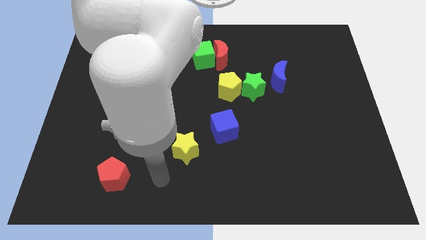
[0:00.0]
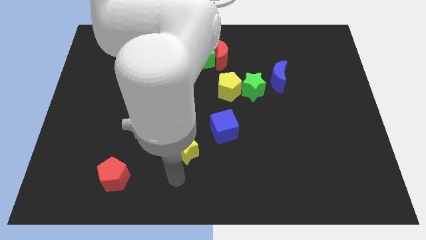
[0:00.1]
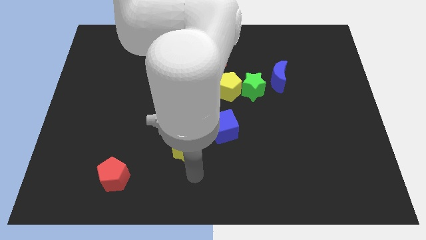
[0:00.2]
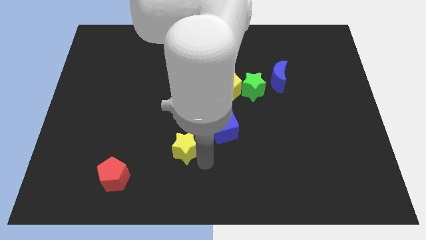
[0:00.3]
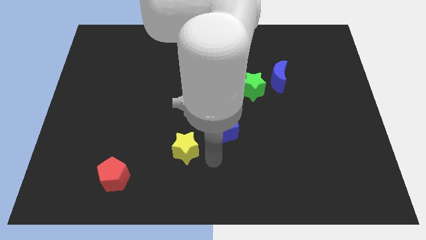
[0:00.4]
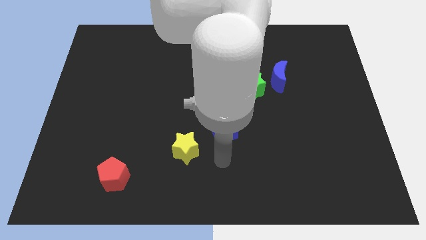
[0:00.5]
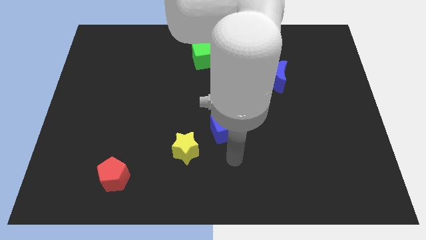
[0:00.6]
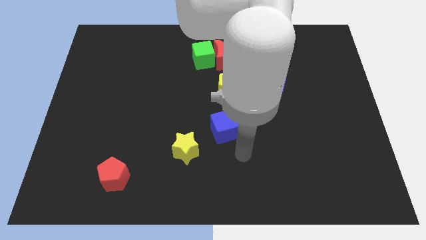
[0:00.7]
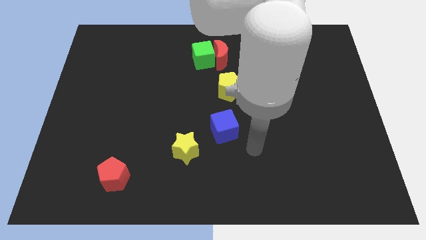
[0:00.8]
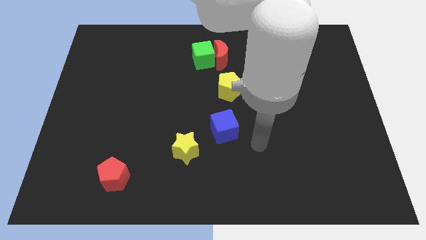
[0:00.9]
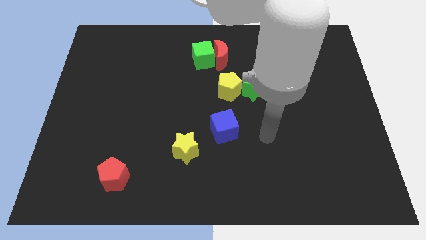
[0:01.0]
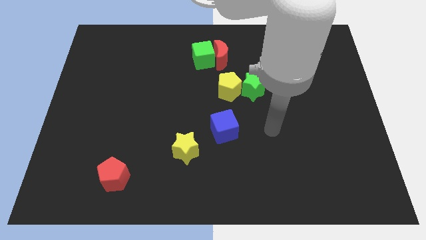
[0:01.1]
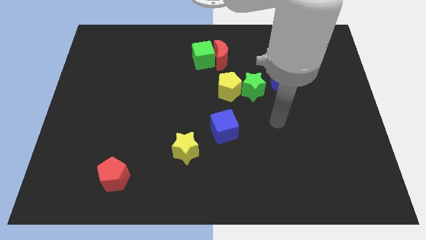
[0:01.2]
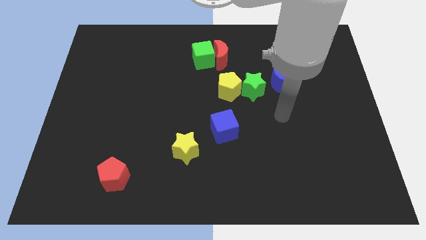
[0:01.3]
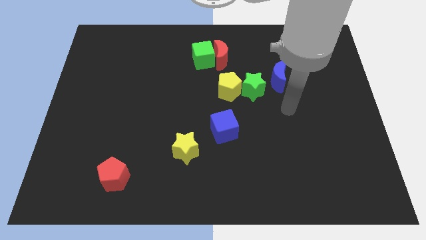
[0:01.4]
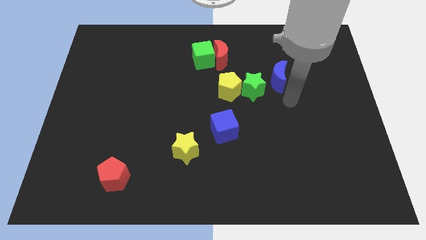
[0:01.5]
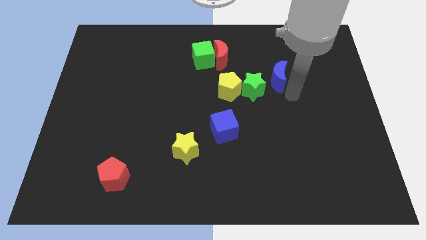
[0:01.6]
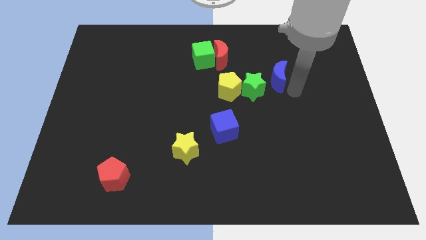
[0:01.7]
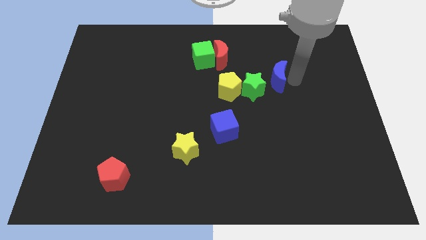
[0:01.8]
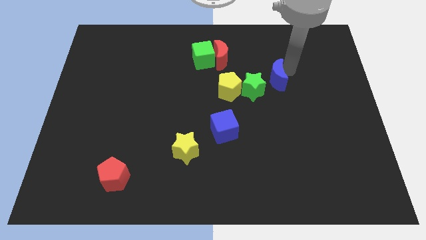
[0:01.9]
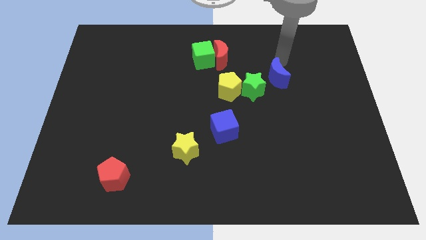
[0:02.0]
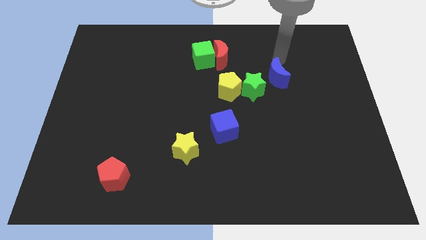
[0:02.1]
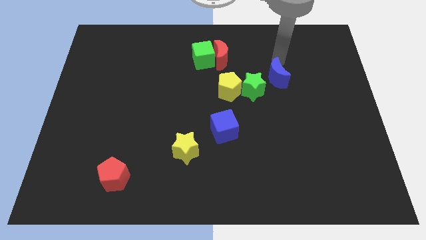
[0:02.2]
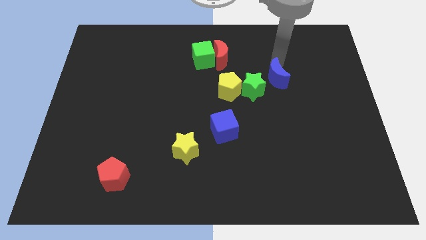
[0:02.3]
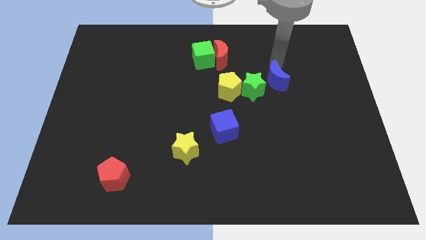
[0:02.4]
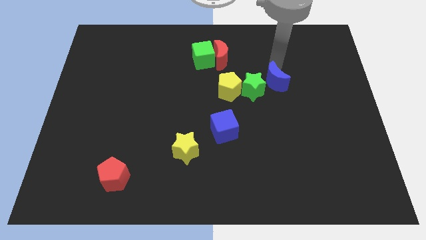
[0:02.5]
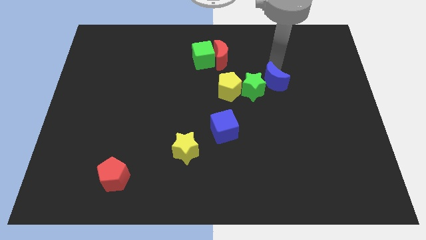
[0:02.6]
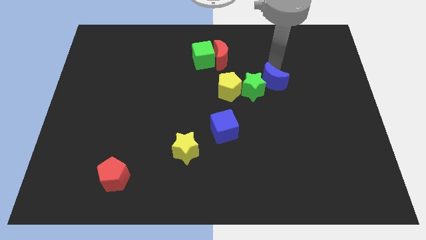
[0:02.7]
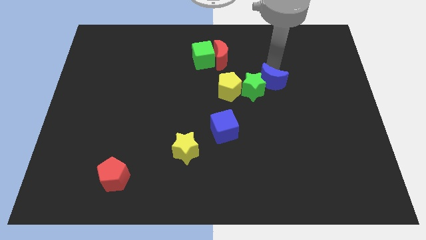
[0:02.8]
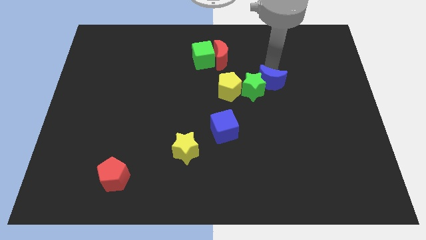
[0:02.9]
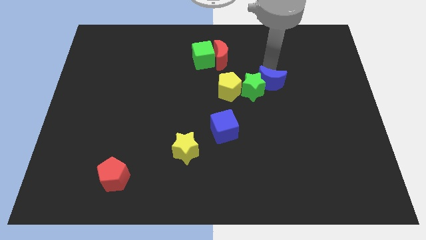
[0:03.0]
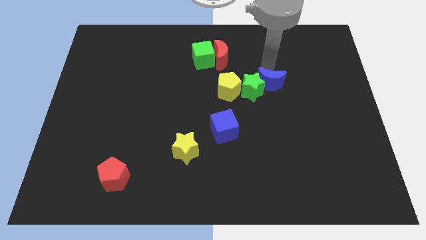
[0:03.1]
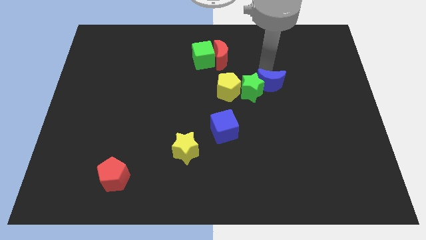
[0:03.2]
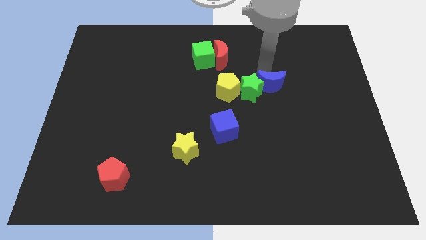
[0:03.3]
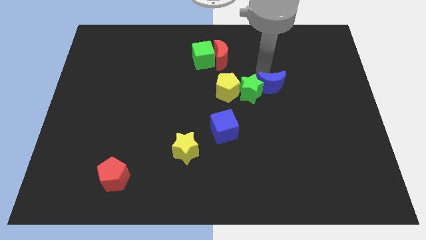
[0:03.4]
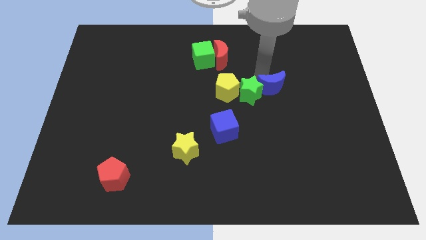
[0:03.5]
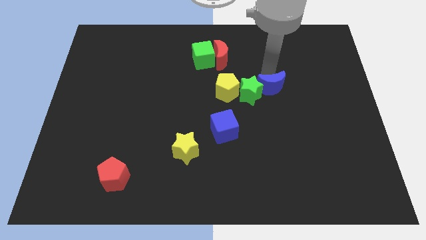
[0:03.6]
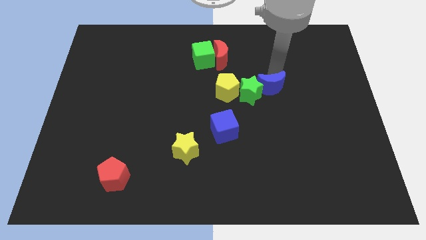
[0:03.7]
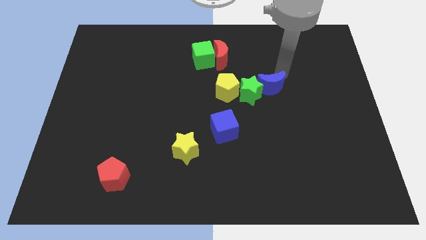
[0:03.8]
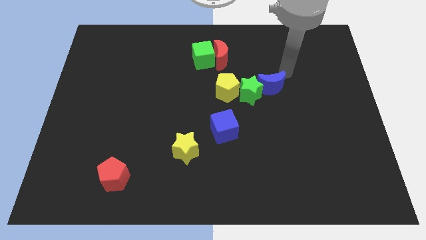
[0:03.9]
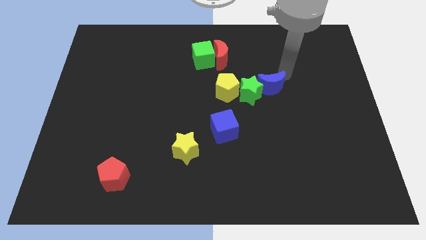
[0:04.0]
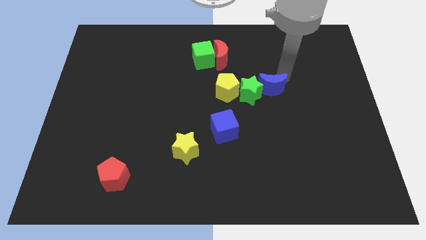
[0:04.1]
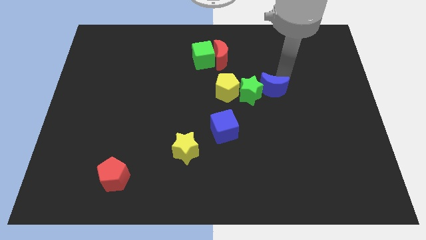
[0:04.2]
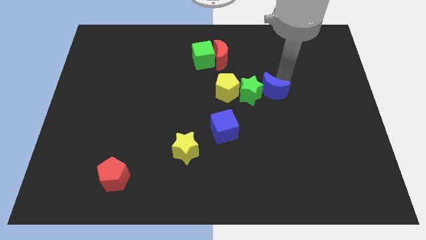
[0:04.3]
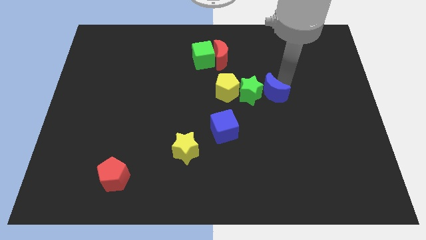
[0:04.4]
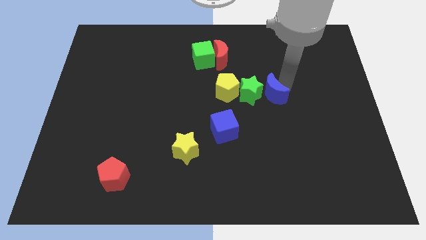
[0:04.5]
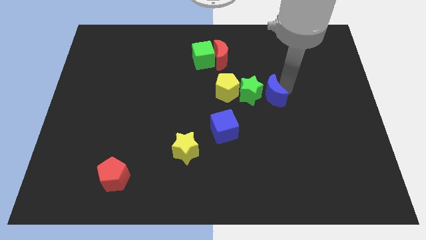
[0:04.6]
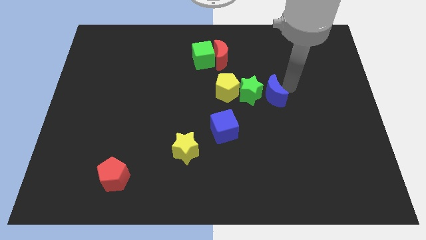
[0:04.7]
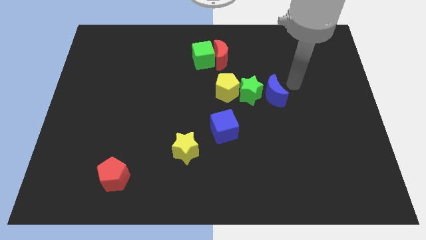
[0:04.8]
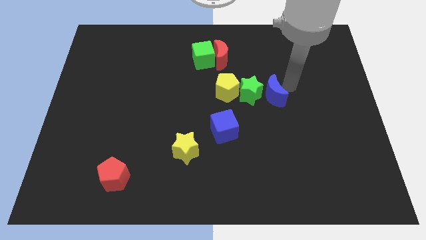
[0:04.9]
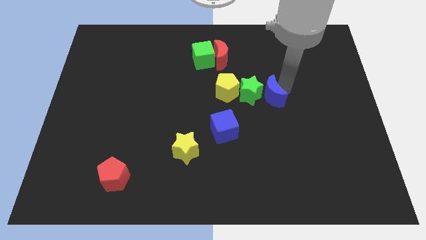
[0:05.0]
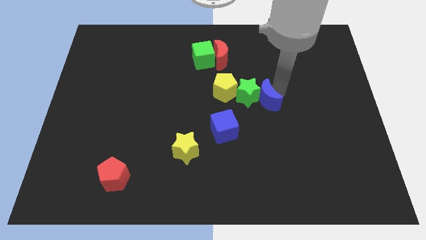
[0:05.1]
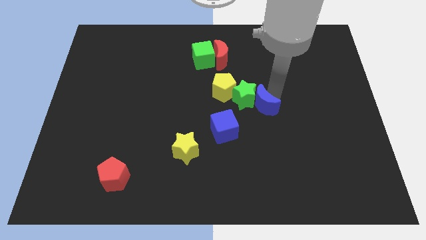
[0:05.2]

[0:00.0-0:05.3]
slide the blue moon diagonally down and to the right of the yellow pentagon

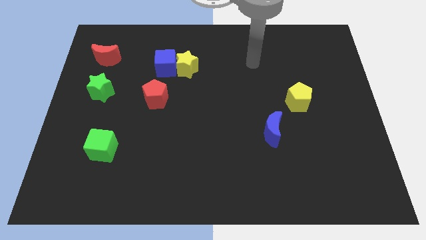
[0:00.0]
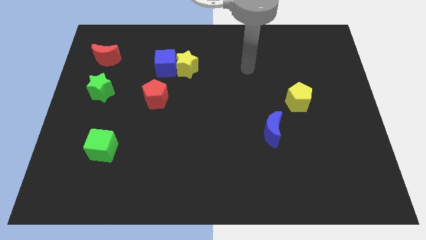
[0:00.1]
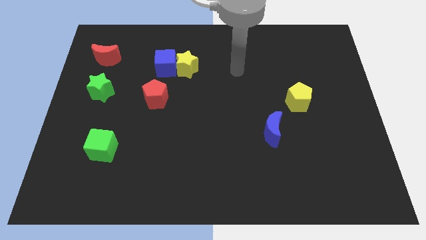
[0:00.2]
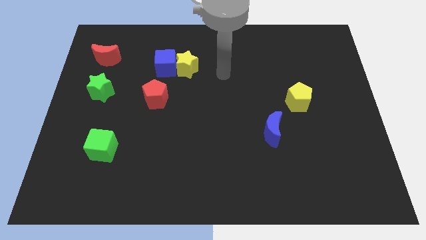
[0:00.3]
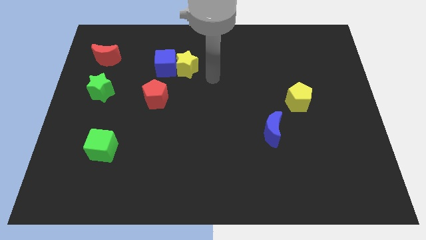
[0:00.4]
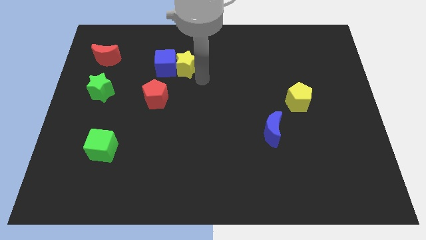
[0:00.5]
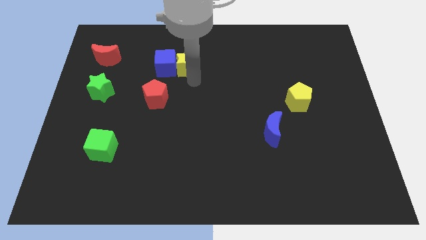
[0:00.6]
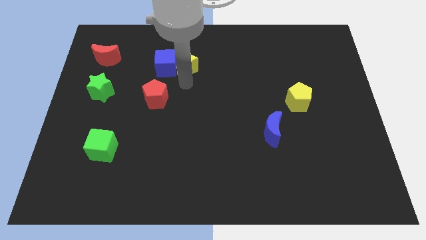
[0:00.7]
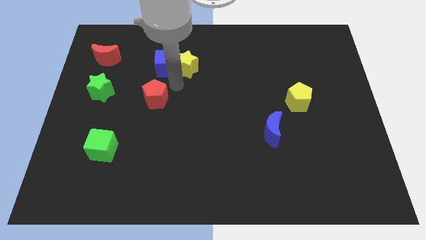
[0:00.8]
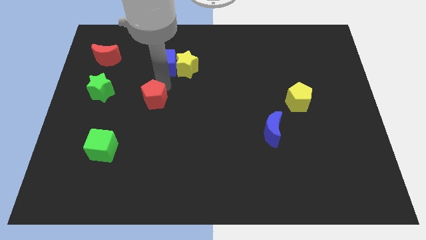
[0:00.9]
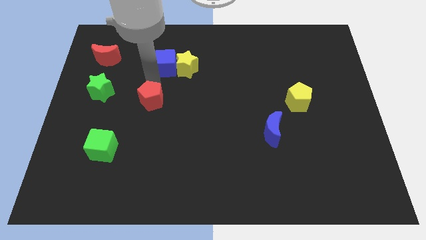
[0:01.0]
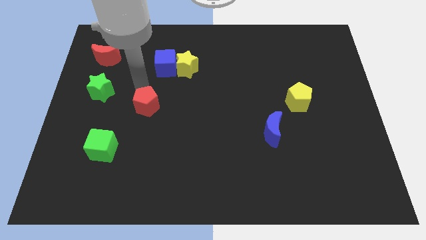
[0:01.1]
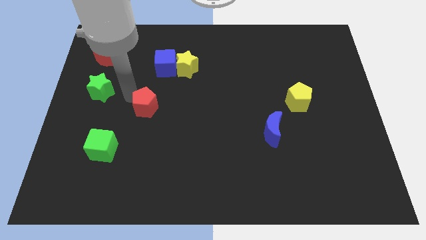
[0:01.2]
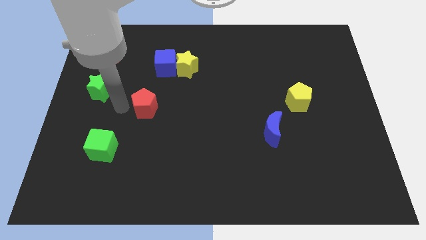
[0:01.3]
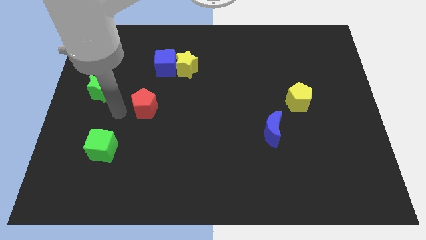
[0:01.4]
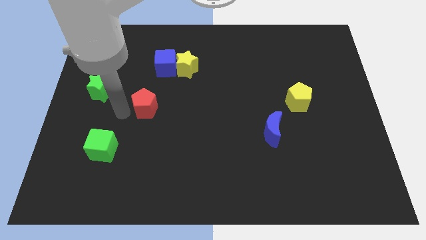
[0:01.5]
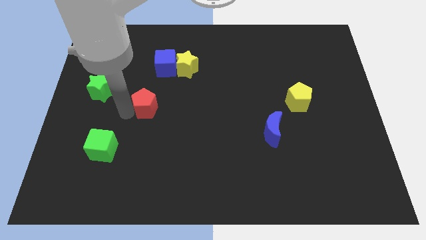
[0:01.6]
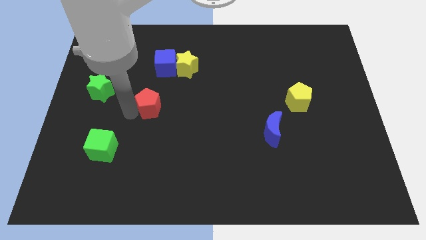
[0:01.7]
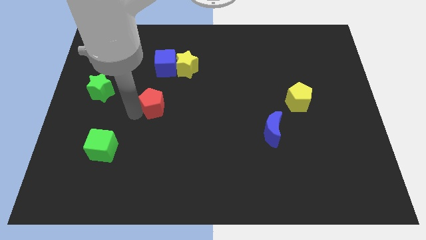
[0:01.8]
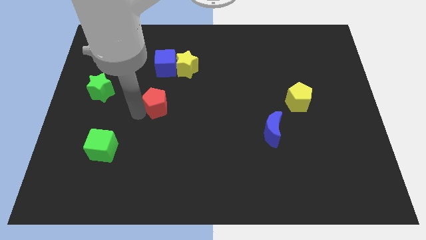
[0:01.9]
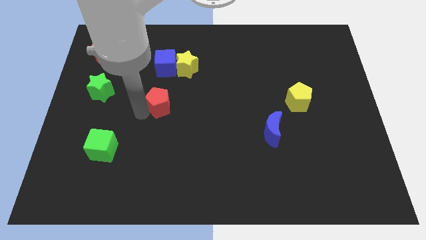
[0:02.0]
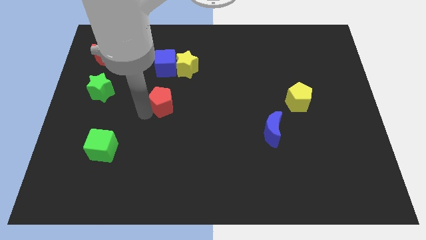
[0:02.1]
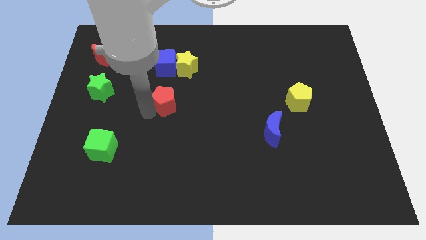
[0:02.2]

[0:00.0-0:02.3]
move the red pentagon to the bottom of the yellow star

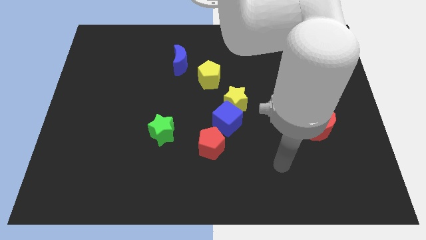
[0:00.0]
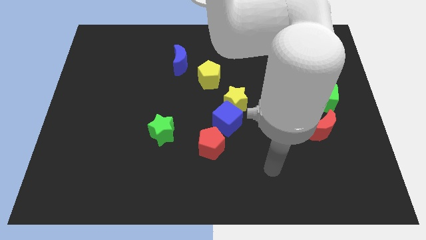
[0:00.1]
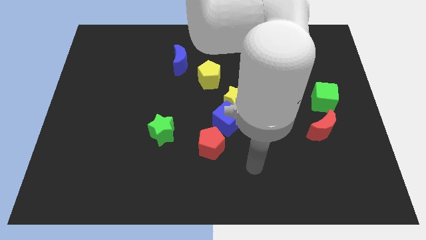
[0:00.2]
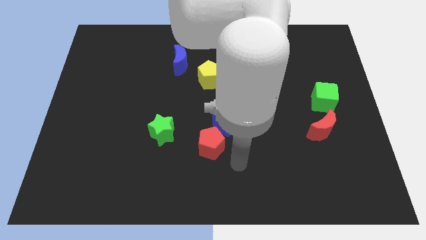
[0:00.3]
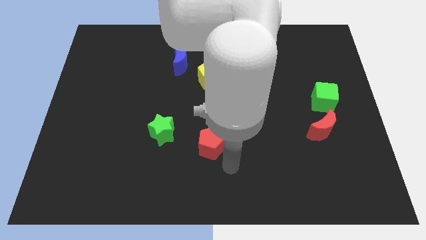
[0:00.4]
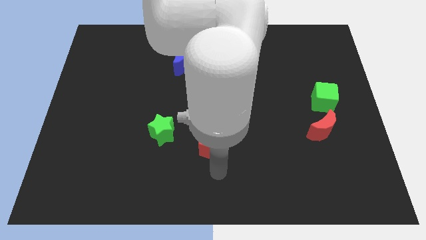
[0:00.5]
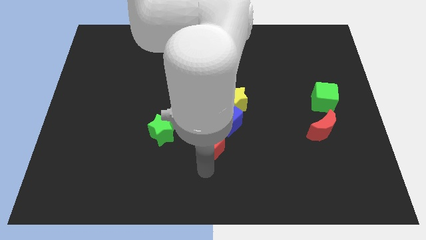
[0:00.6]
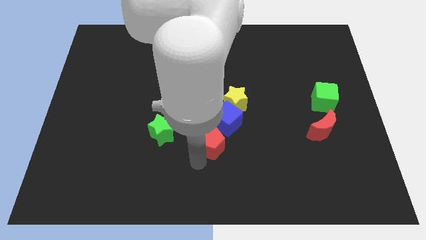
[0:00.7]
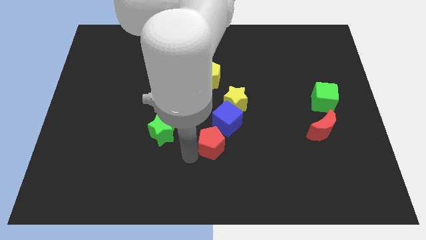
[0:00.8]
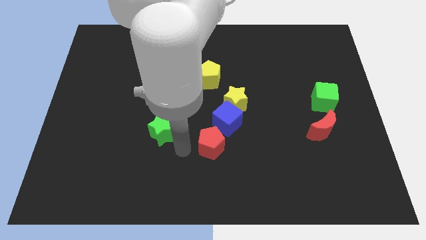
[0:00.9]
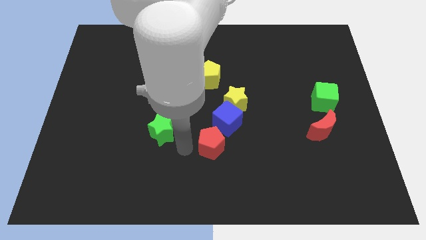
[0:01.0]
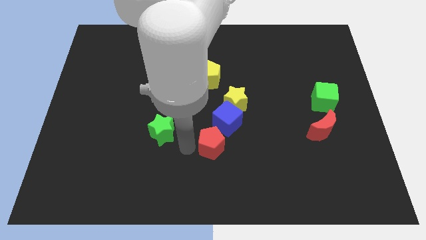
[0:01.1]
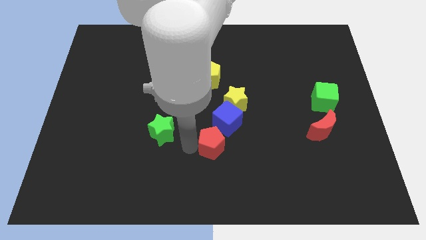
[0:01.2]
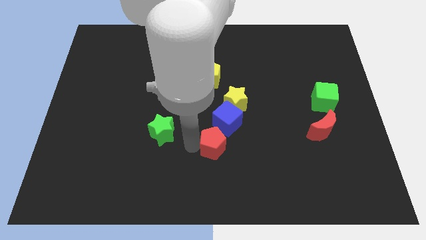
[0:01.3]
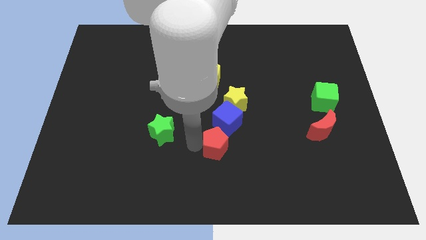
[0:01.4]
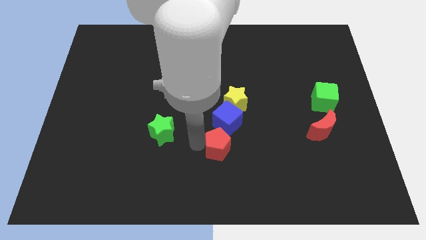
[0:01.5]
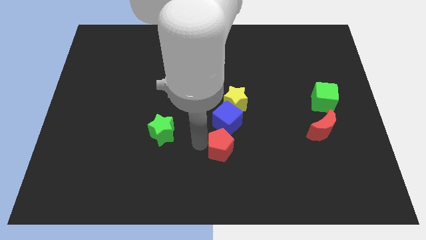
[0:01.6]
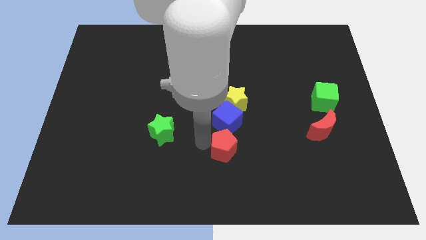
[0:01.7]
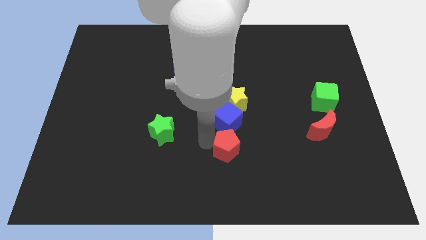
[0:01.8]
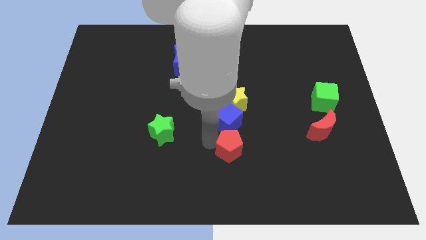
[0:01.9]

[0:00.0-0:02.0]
move the red pentagon diagonally down and to the right of the blue cube
